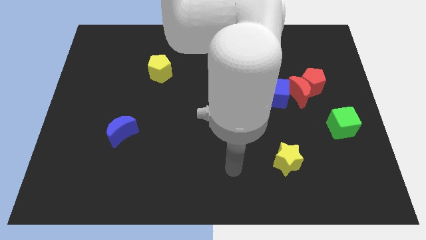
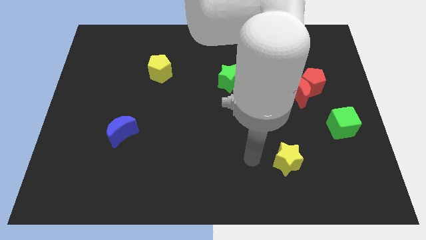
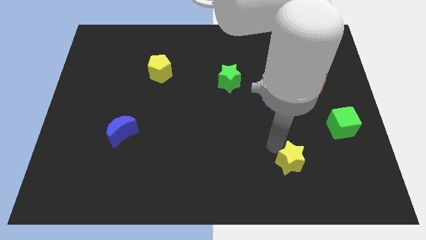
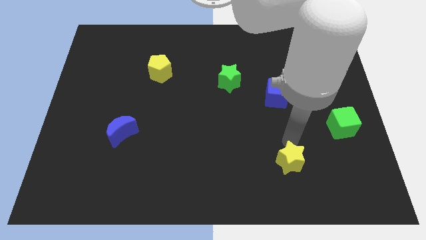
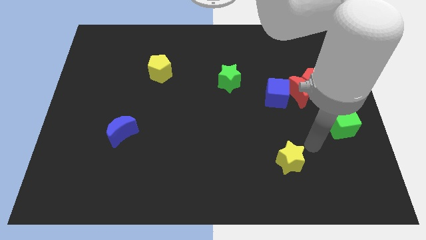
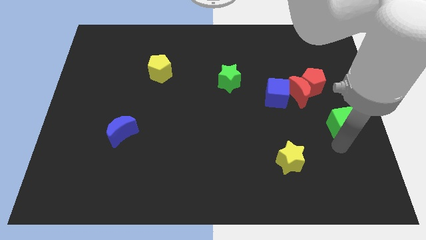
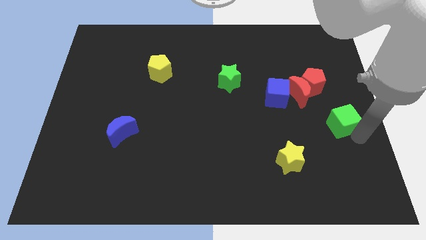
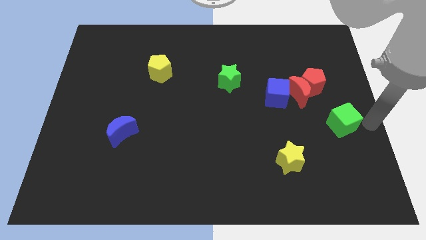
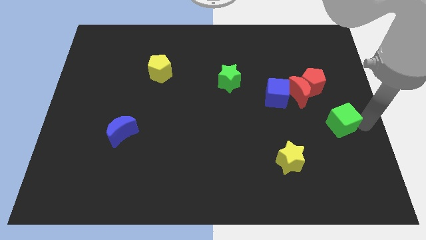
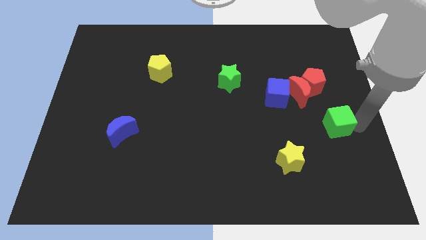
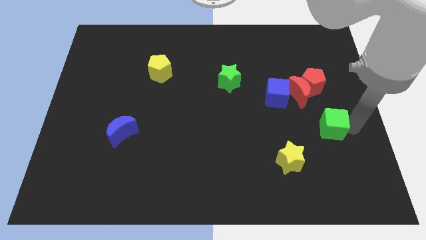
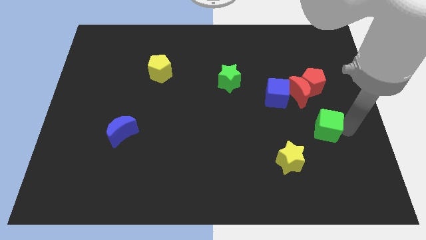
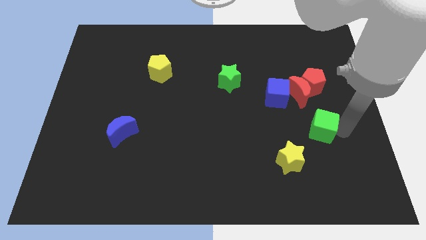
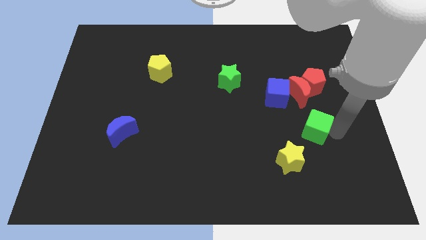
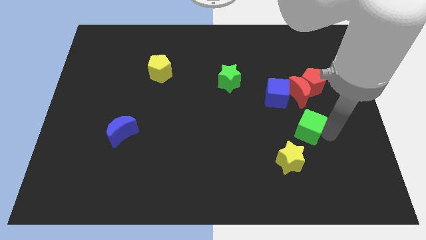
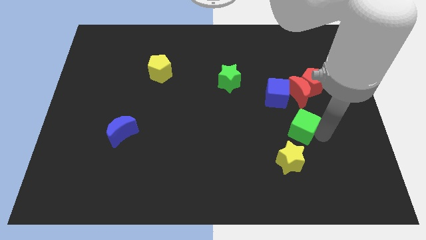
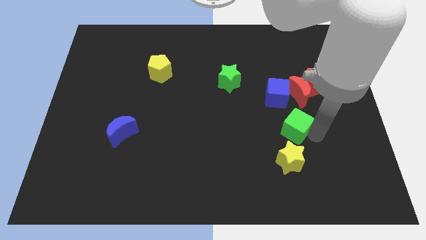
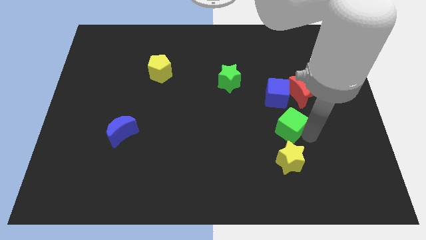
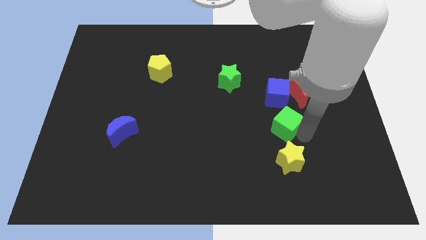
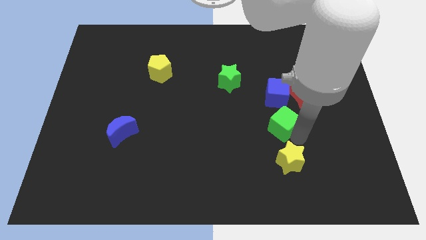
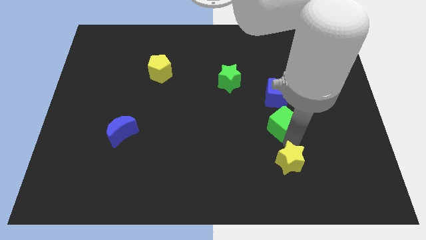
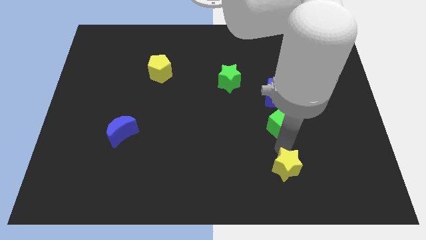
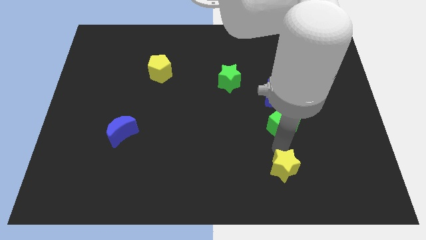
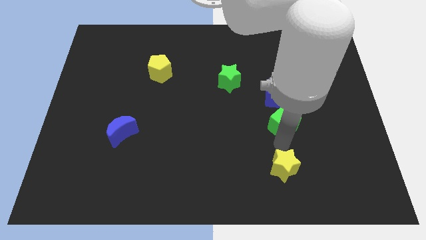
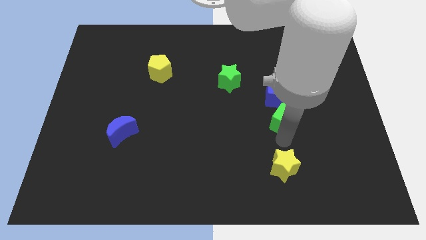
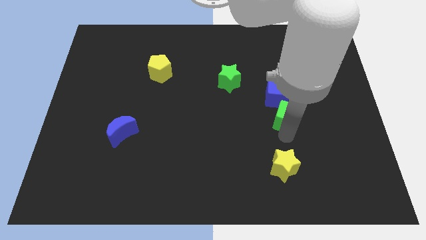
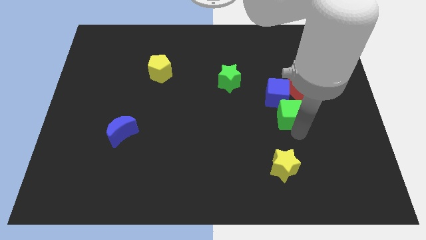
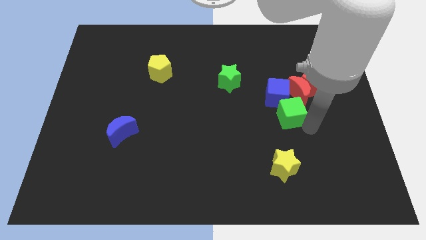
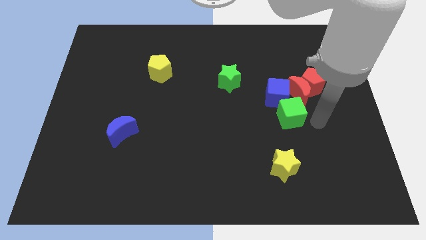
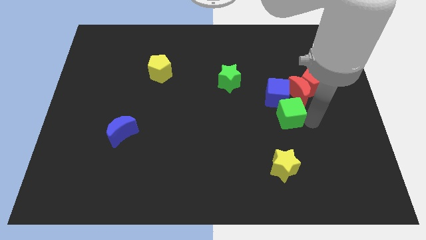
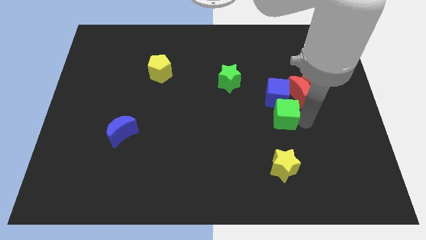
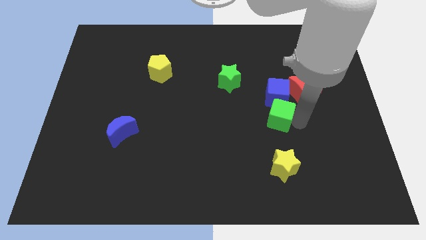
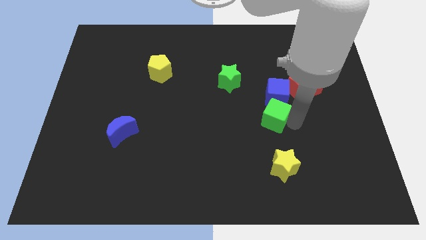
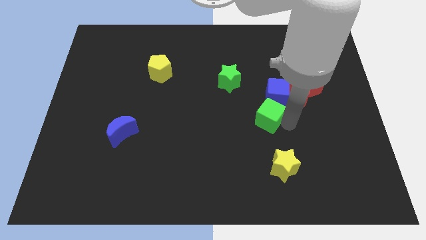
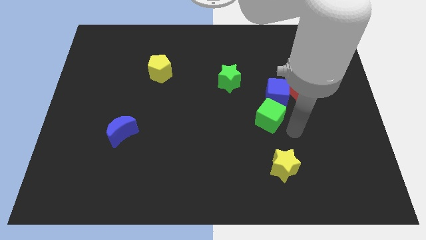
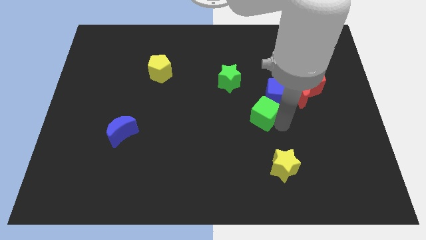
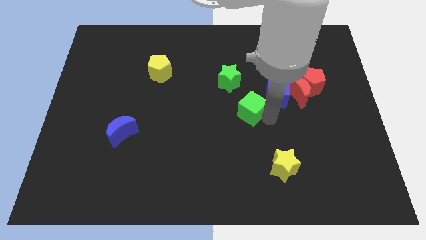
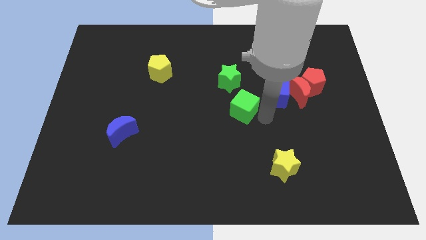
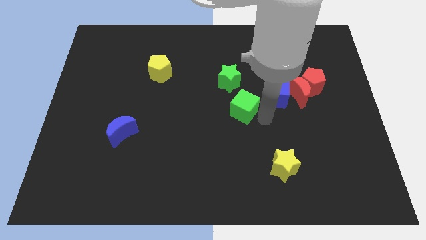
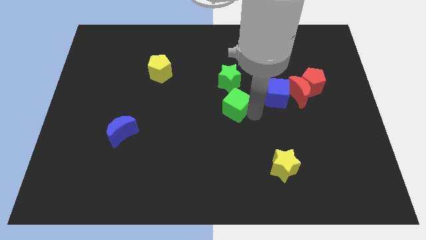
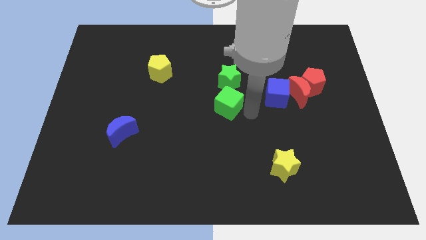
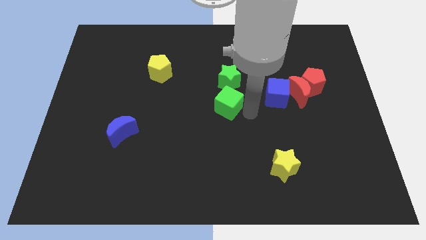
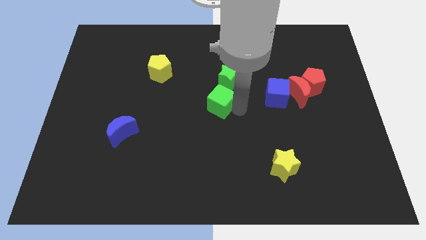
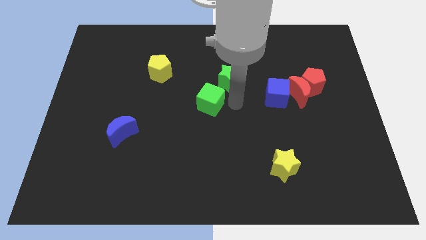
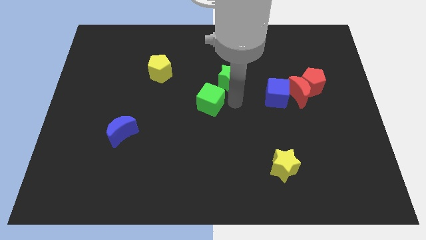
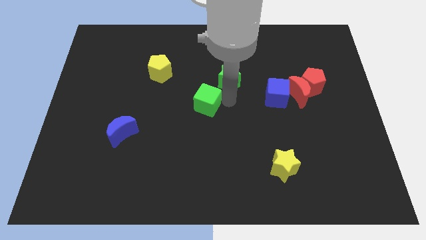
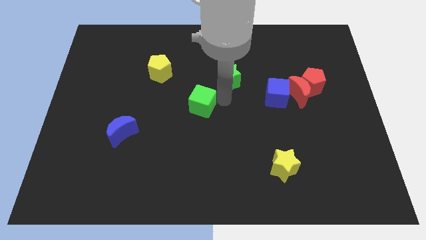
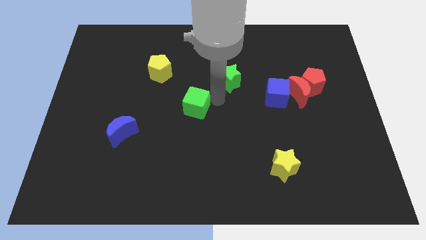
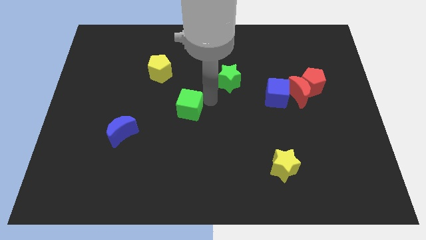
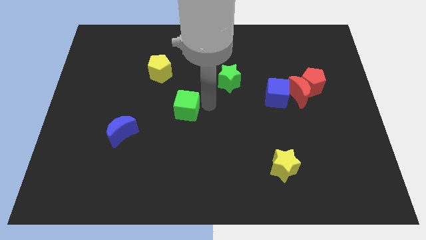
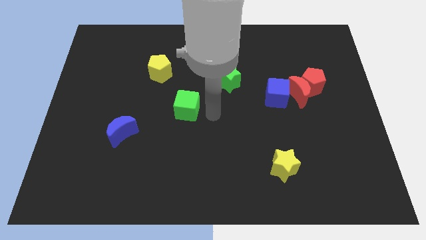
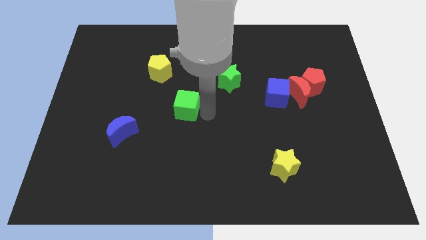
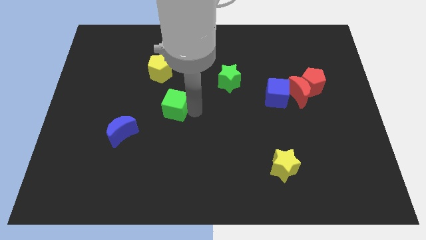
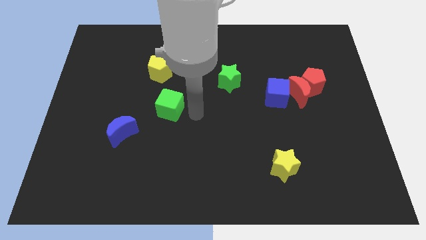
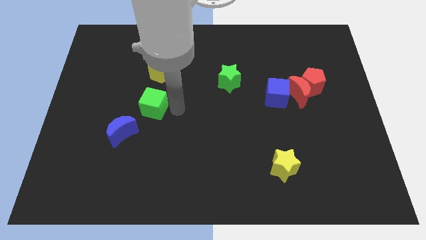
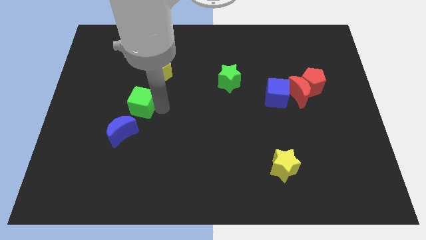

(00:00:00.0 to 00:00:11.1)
push the green cube to the top of the blue moon

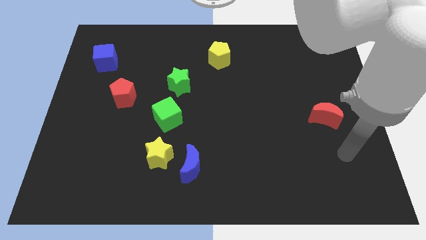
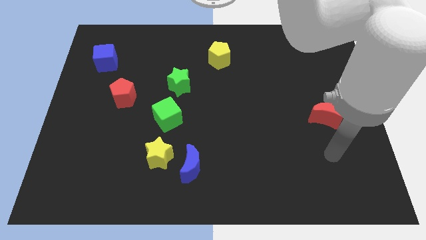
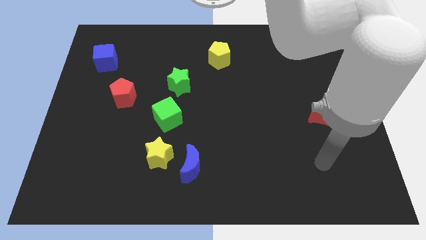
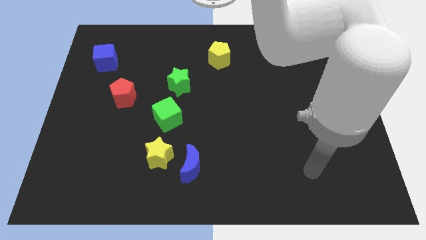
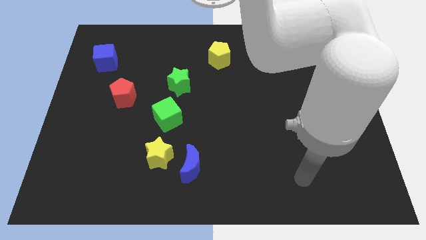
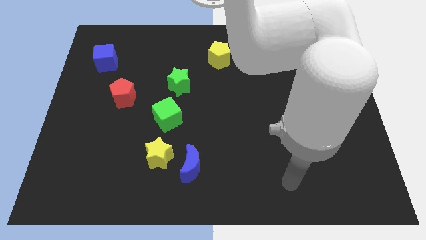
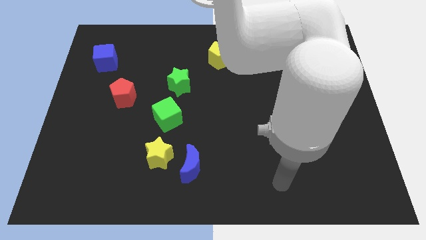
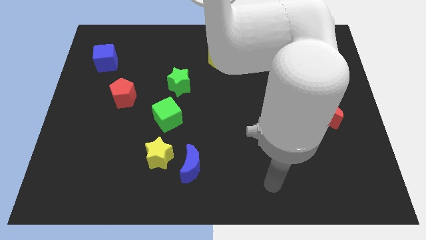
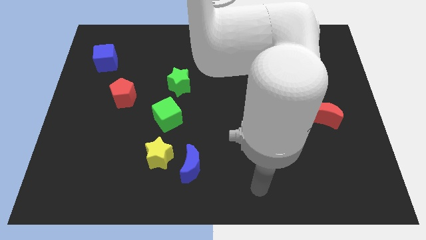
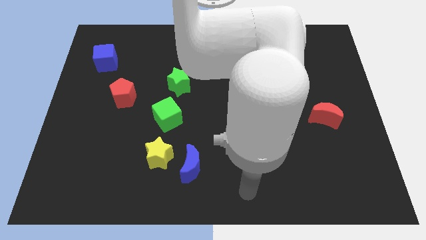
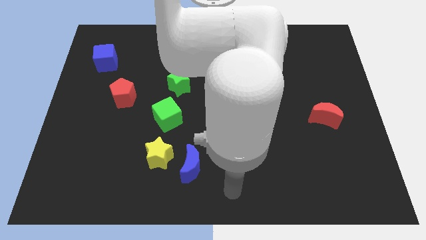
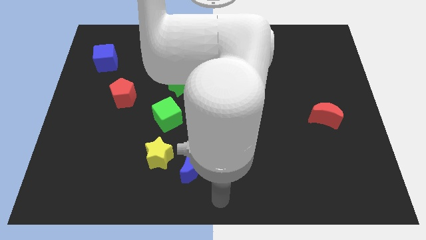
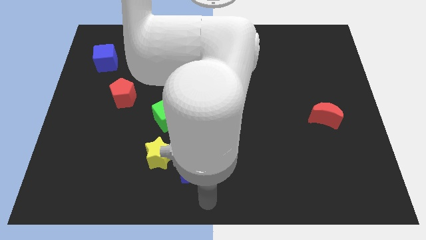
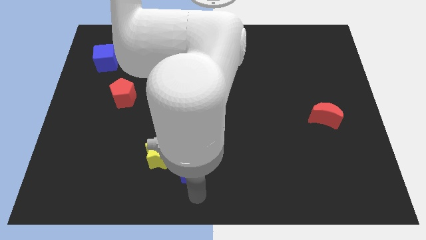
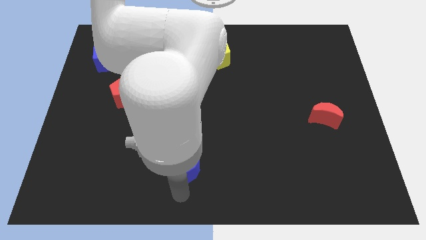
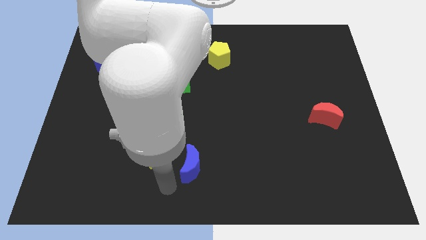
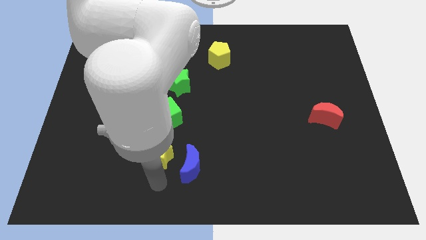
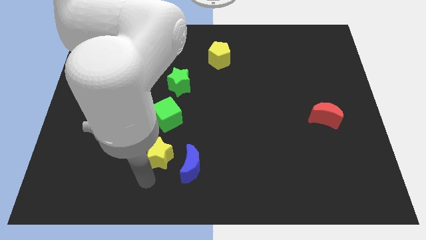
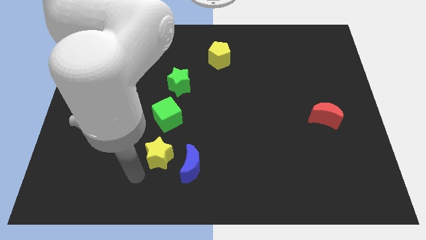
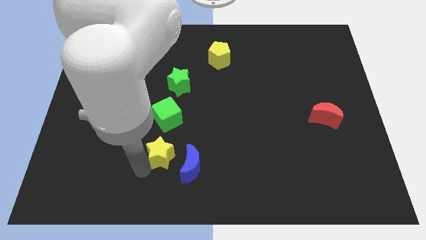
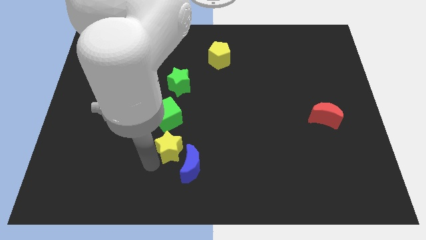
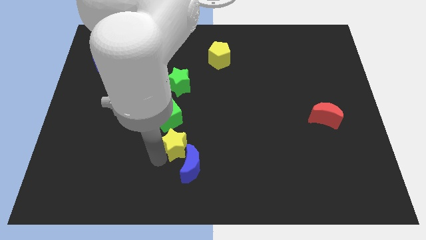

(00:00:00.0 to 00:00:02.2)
move the yellow star to the bottom right side of the green cube
